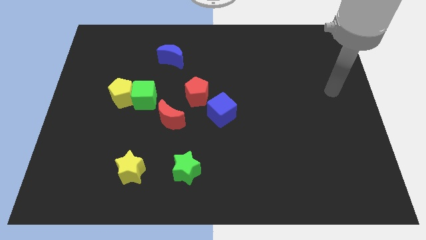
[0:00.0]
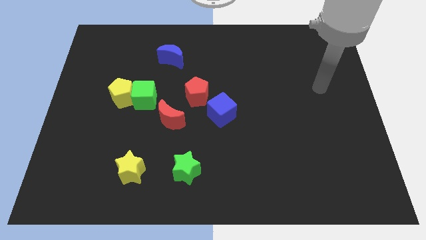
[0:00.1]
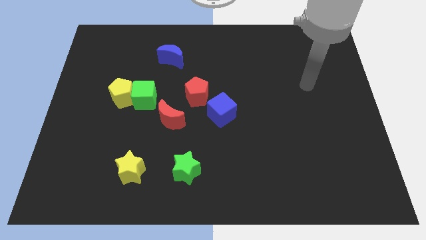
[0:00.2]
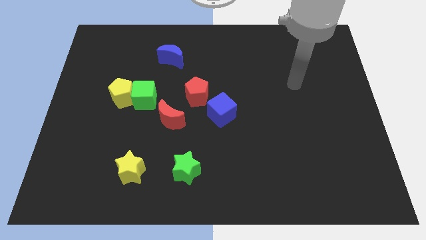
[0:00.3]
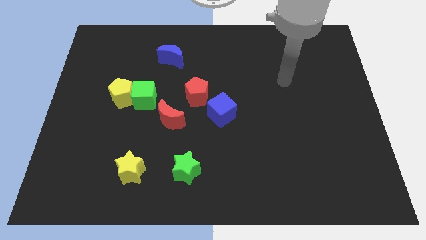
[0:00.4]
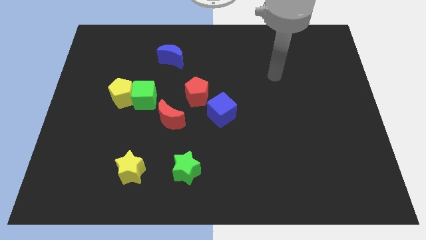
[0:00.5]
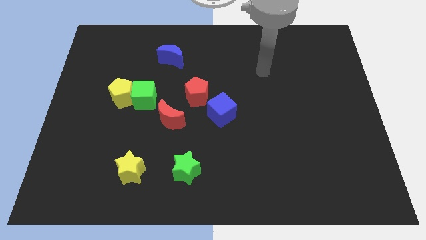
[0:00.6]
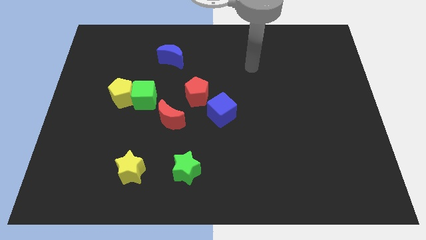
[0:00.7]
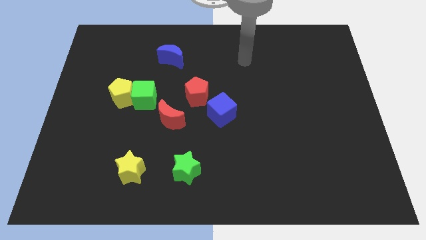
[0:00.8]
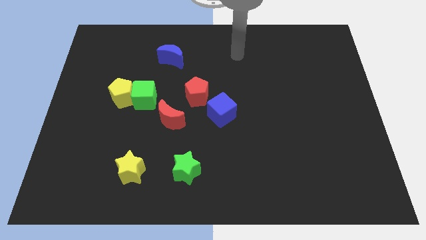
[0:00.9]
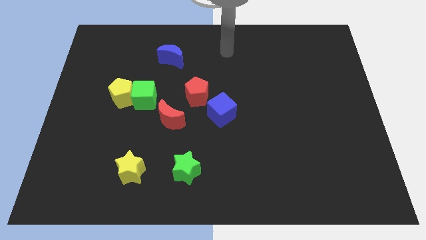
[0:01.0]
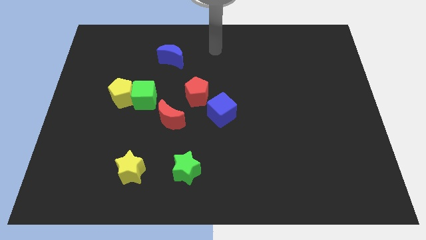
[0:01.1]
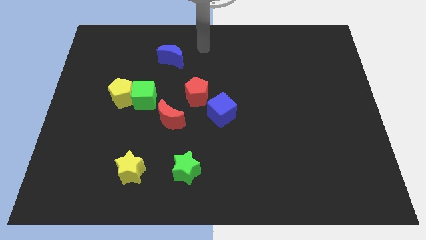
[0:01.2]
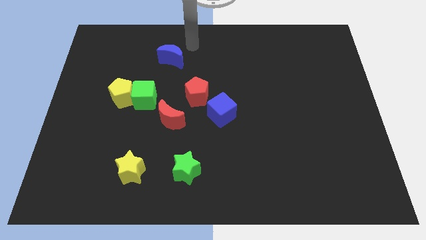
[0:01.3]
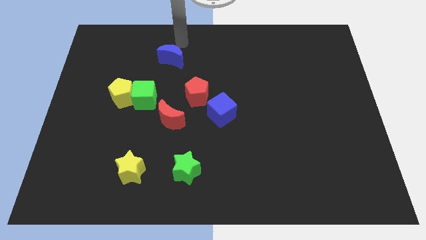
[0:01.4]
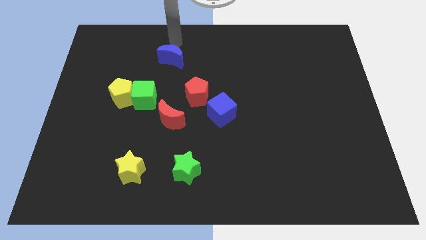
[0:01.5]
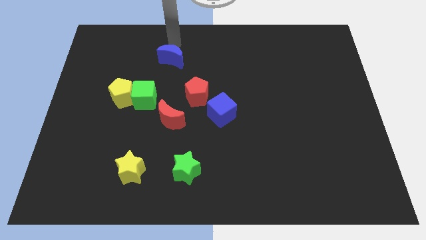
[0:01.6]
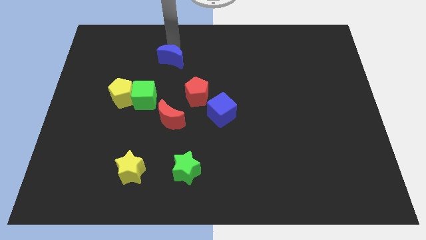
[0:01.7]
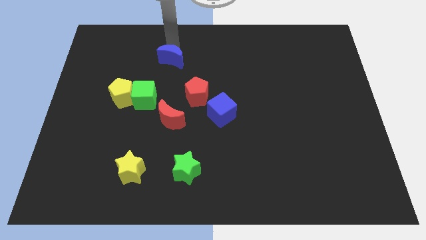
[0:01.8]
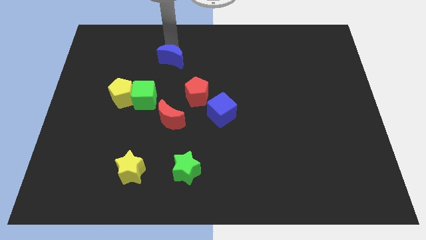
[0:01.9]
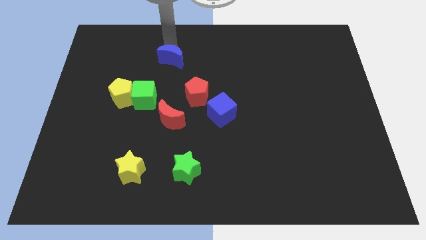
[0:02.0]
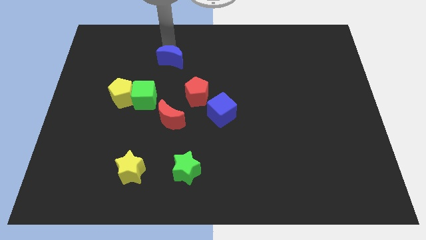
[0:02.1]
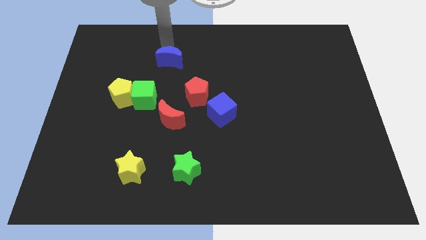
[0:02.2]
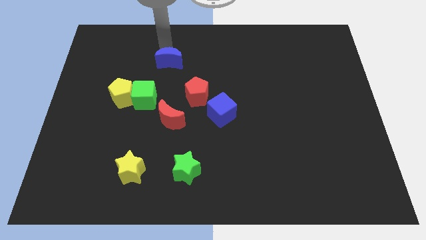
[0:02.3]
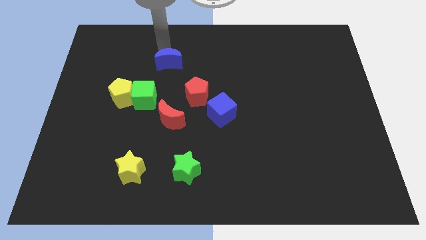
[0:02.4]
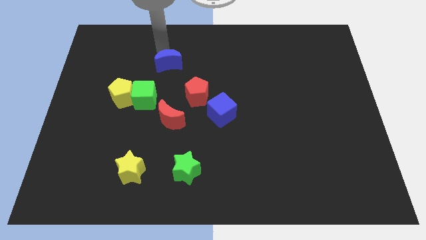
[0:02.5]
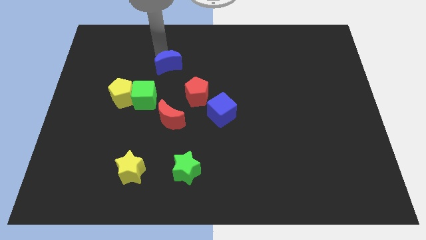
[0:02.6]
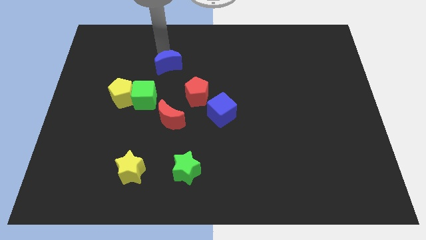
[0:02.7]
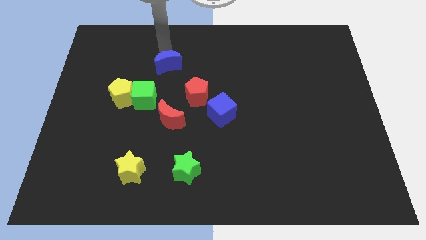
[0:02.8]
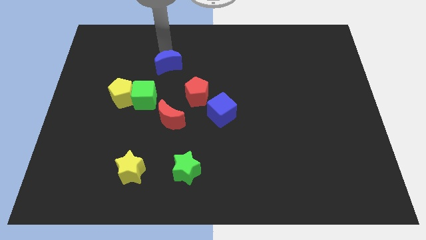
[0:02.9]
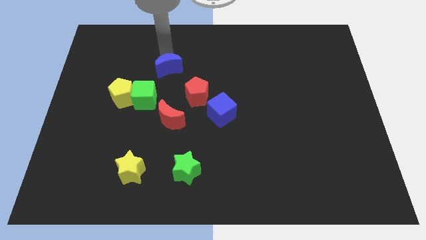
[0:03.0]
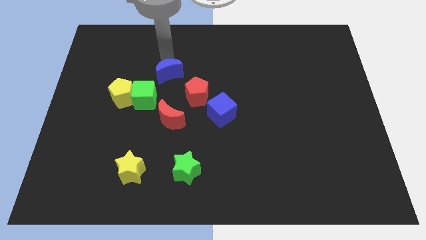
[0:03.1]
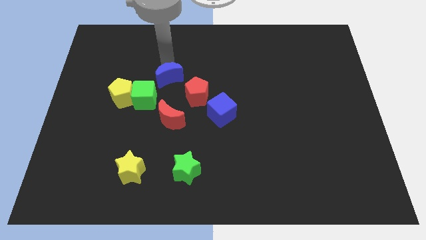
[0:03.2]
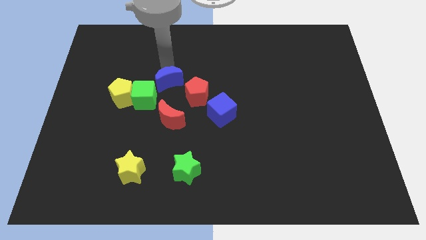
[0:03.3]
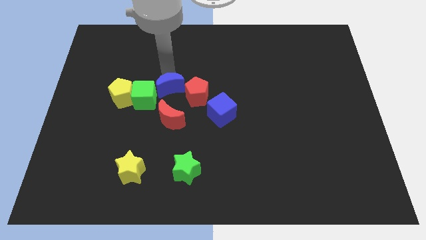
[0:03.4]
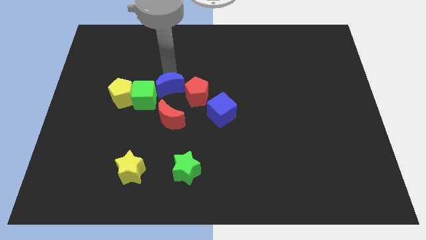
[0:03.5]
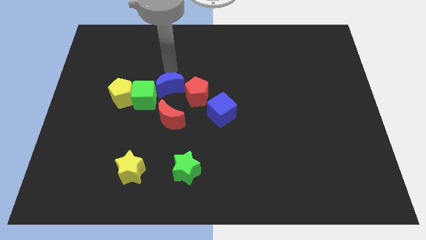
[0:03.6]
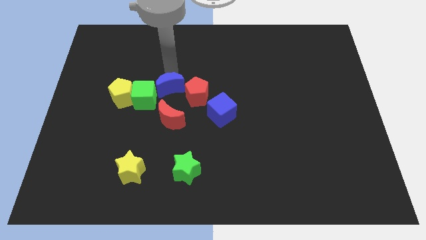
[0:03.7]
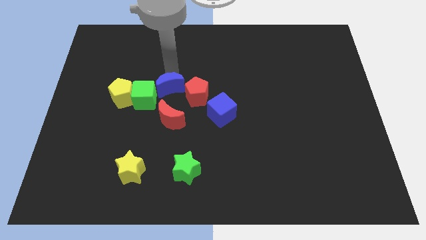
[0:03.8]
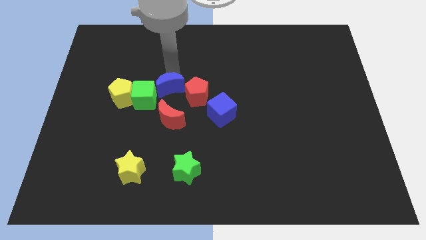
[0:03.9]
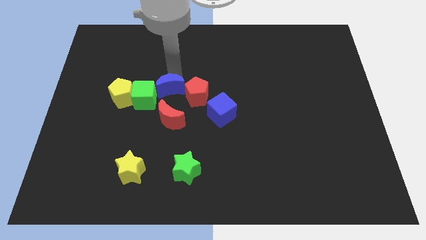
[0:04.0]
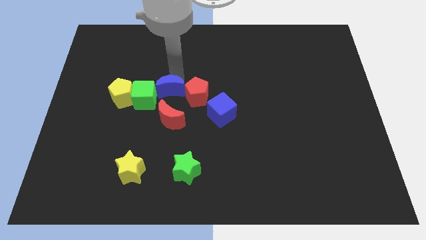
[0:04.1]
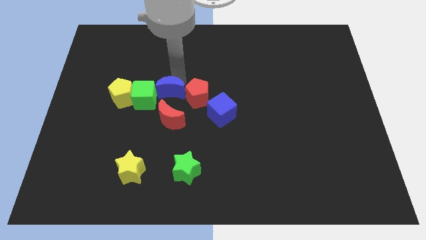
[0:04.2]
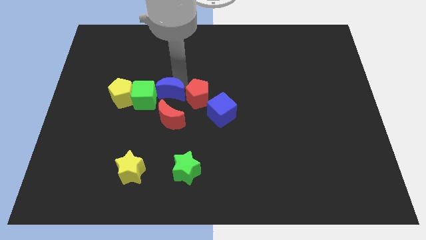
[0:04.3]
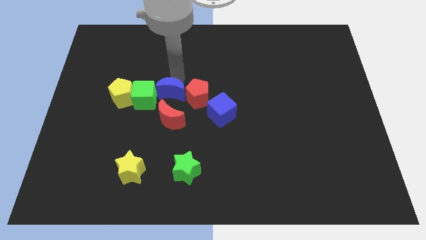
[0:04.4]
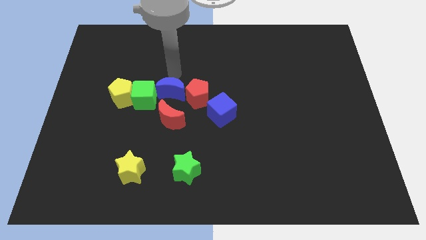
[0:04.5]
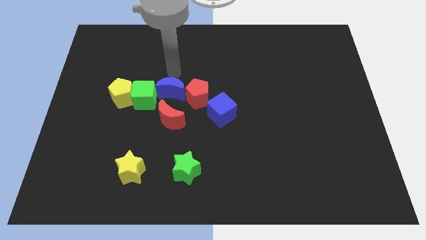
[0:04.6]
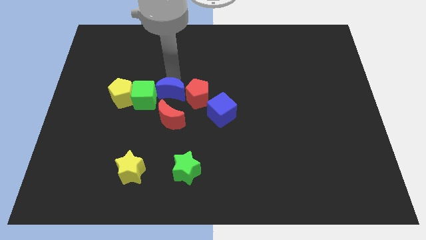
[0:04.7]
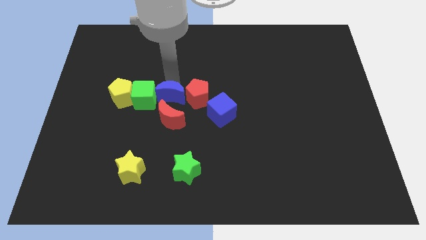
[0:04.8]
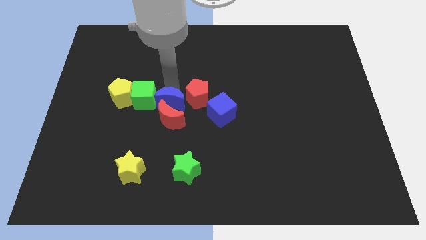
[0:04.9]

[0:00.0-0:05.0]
push the blue moon next to the red moon

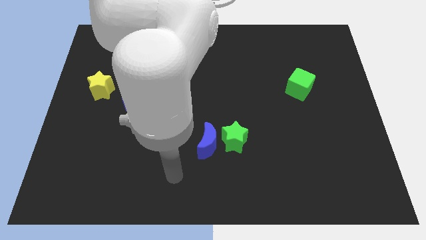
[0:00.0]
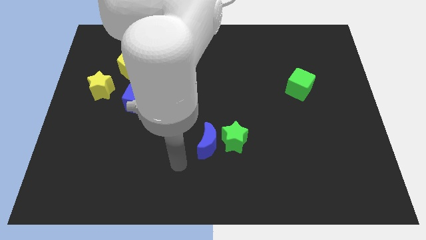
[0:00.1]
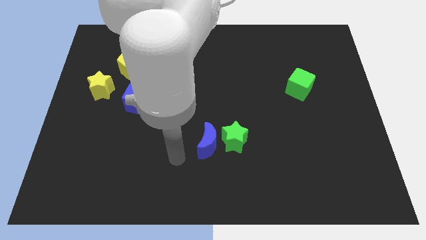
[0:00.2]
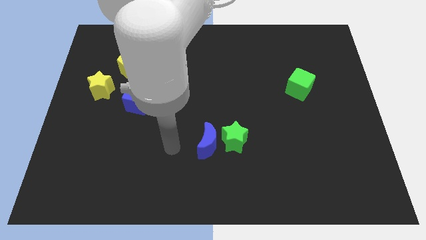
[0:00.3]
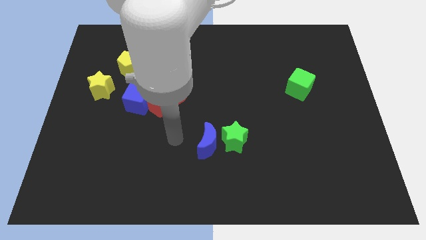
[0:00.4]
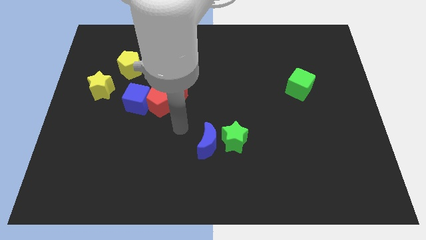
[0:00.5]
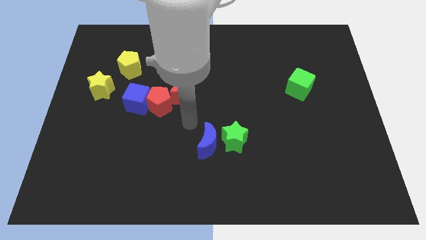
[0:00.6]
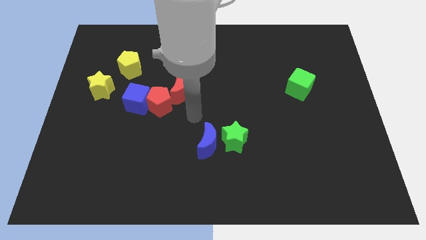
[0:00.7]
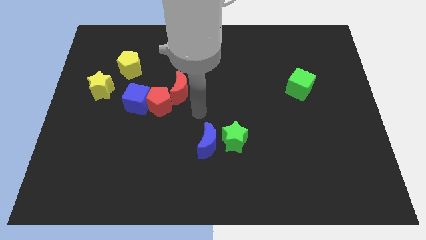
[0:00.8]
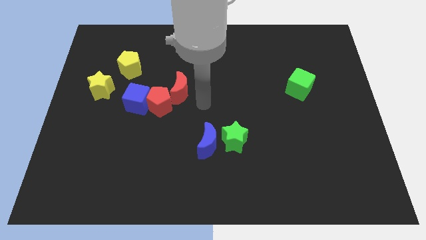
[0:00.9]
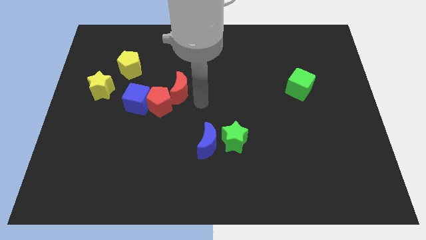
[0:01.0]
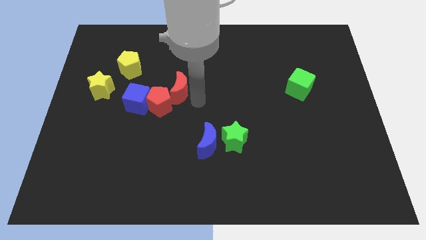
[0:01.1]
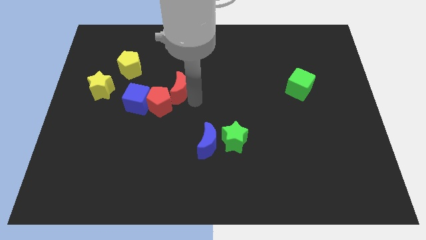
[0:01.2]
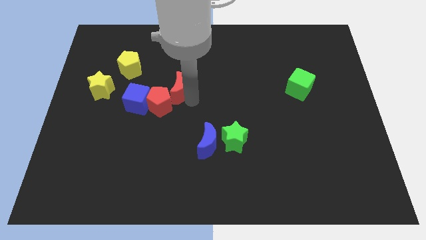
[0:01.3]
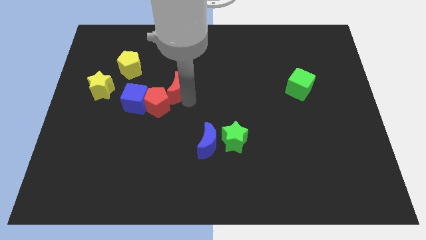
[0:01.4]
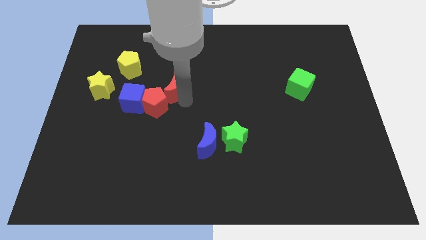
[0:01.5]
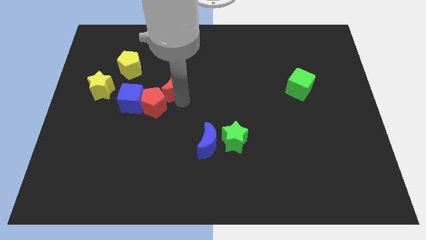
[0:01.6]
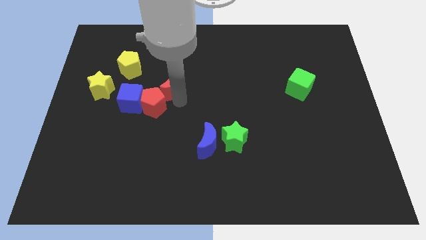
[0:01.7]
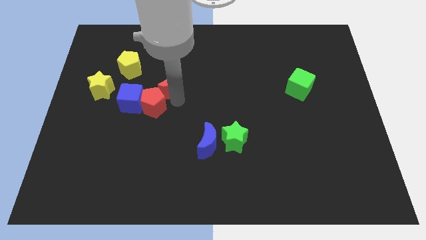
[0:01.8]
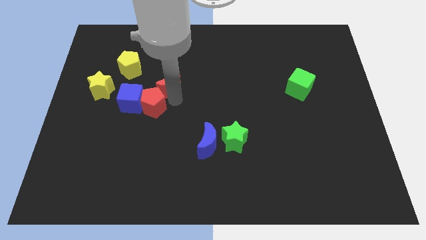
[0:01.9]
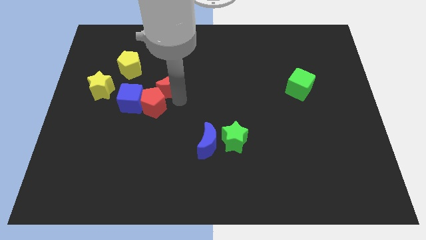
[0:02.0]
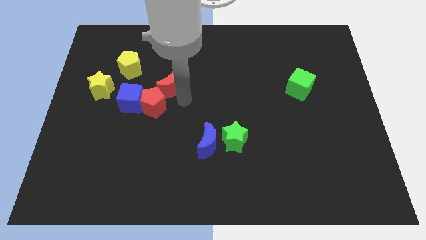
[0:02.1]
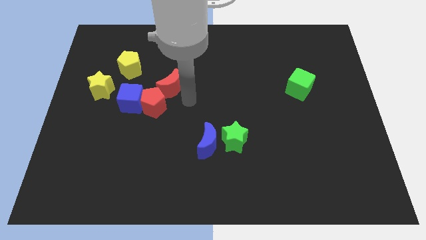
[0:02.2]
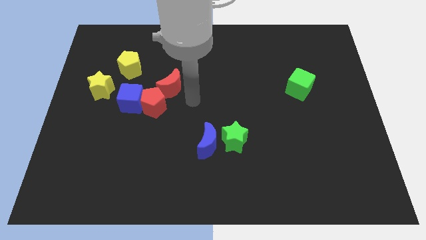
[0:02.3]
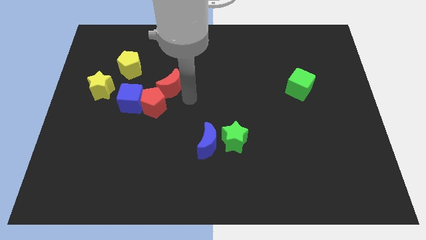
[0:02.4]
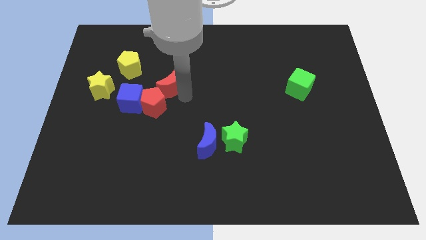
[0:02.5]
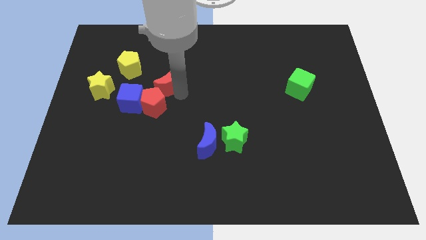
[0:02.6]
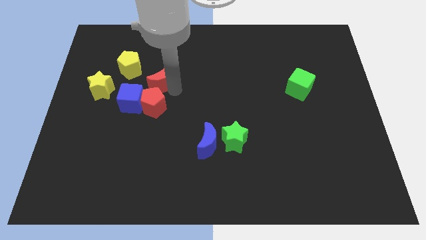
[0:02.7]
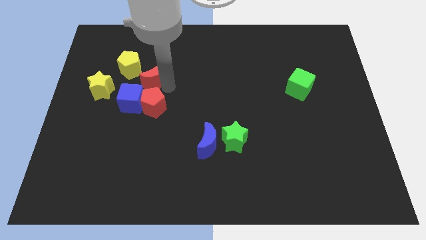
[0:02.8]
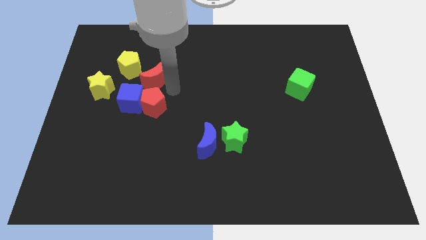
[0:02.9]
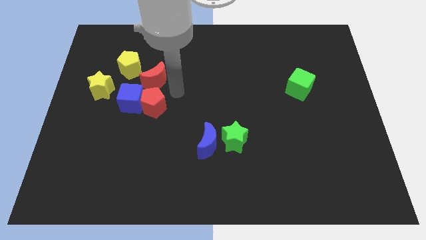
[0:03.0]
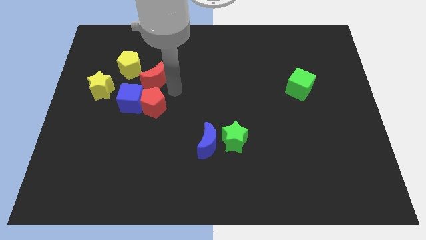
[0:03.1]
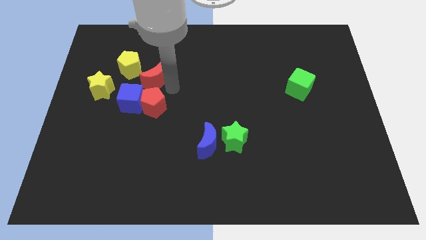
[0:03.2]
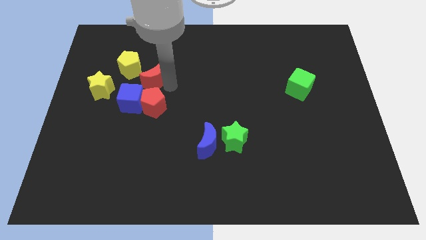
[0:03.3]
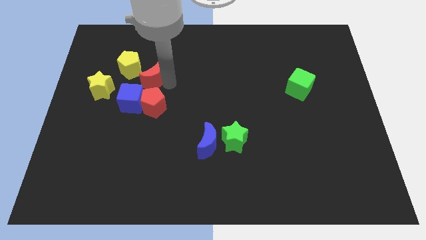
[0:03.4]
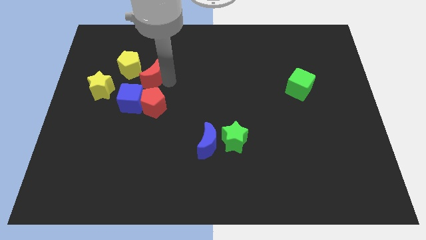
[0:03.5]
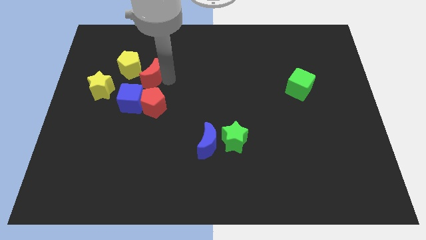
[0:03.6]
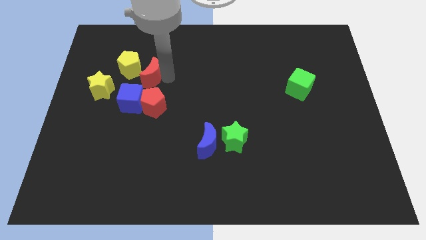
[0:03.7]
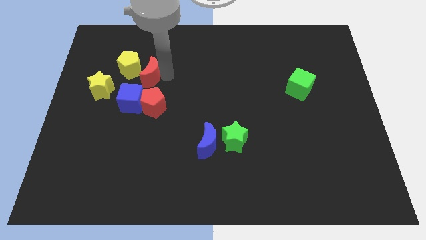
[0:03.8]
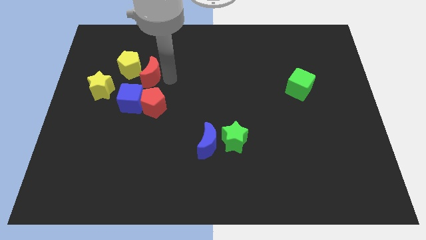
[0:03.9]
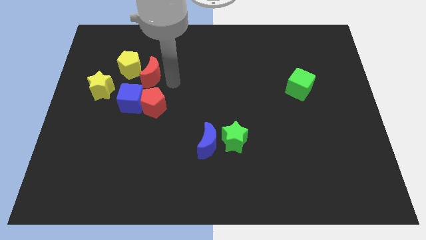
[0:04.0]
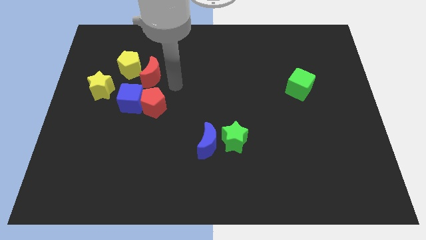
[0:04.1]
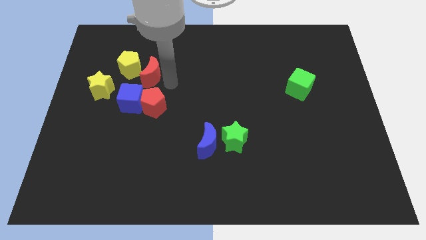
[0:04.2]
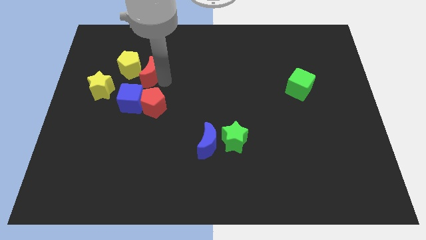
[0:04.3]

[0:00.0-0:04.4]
put the red moon to the yellow pentagon
